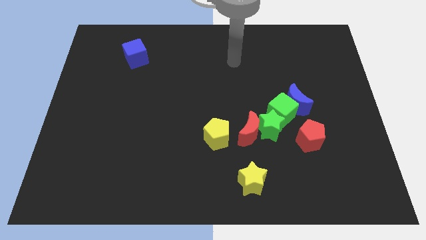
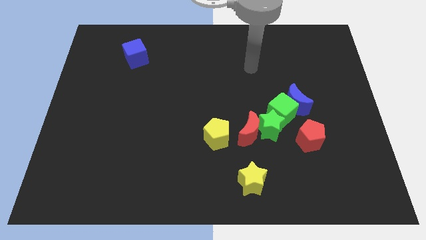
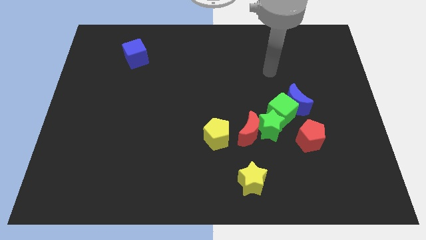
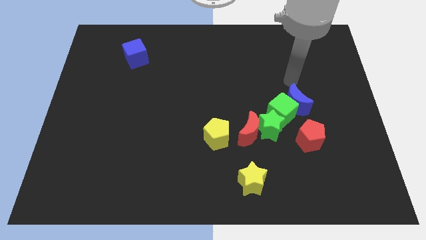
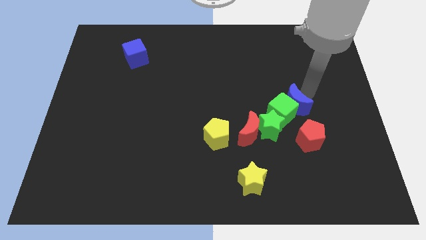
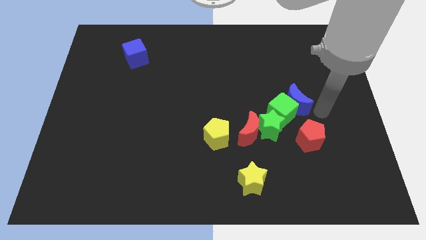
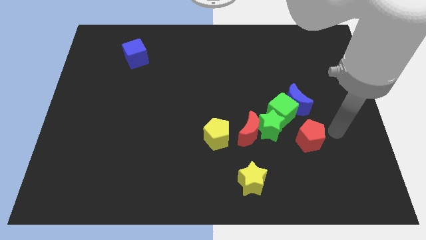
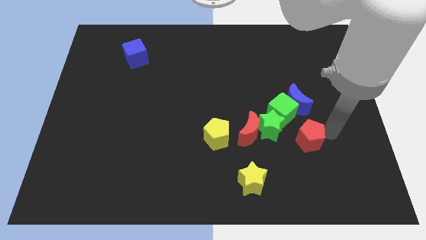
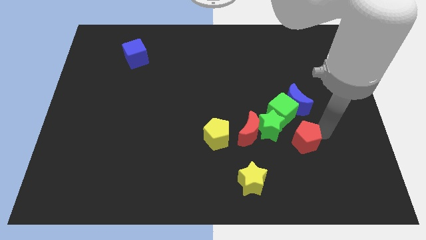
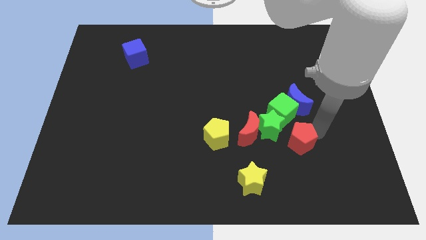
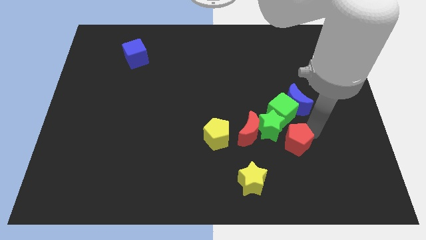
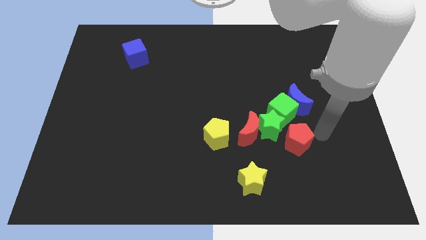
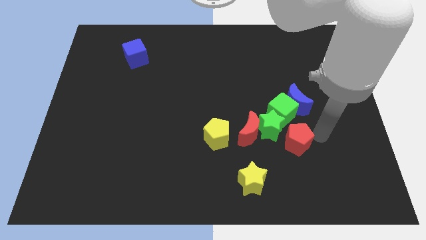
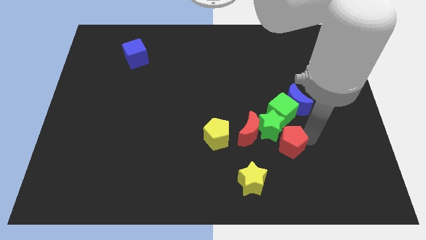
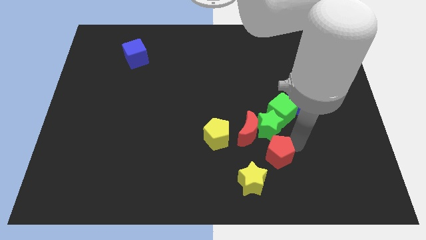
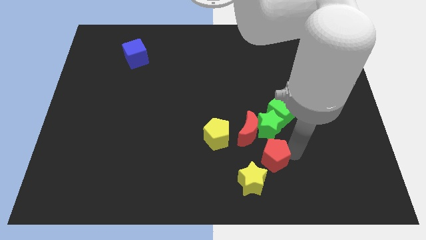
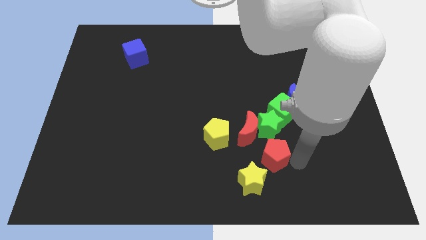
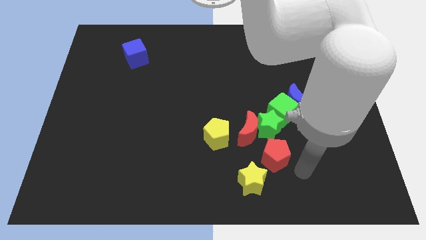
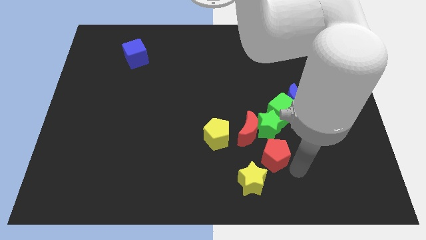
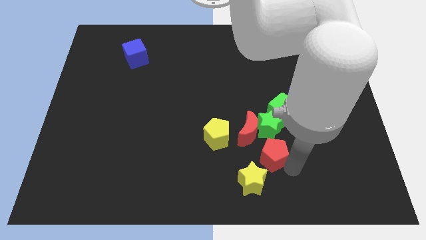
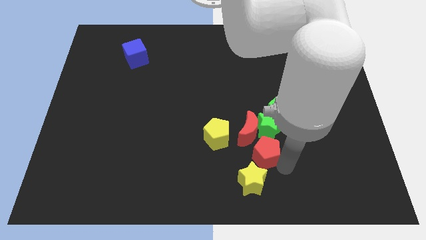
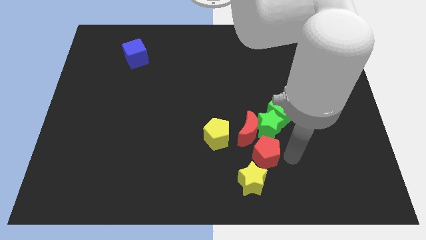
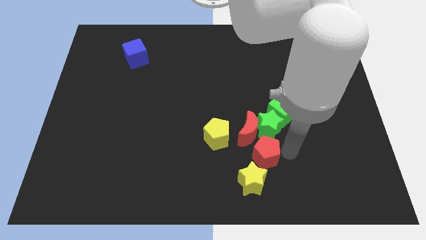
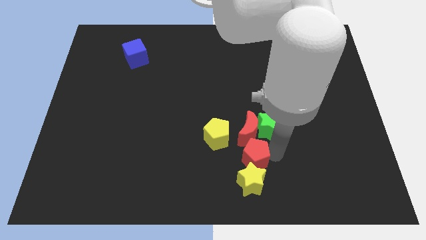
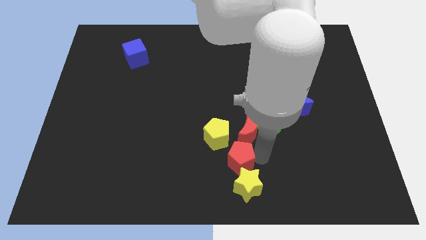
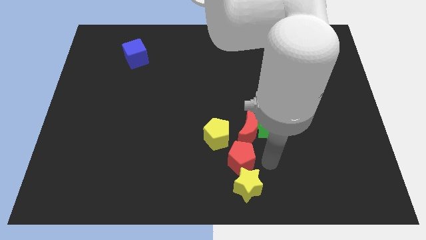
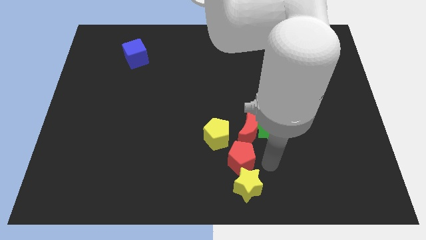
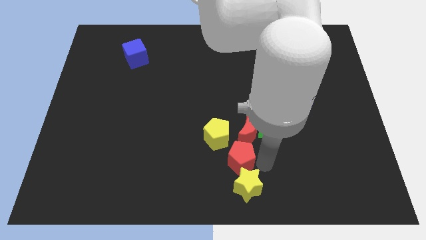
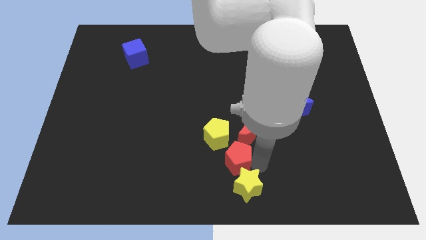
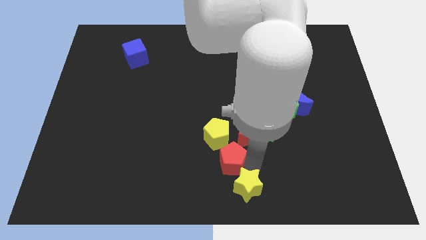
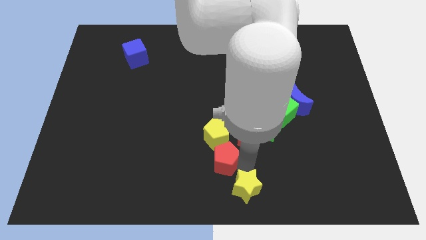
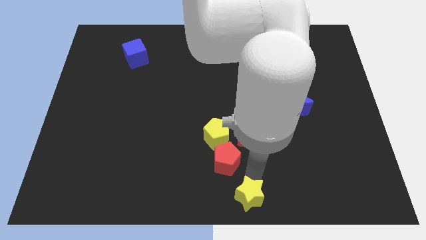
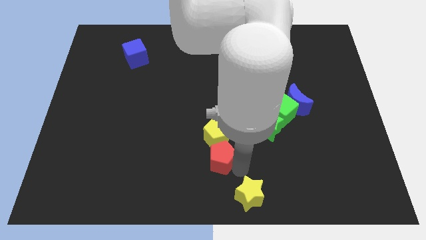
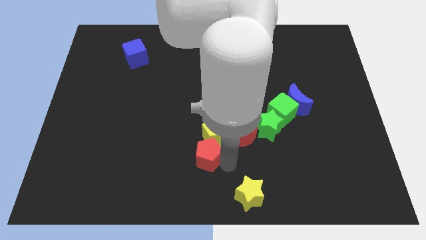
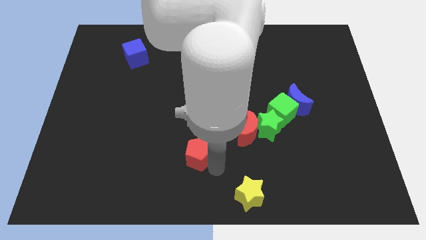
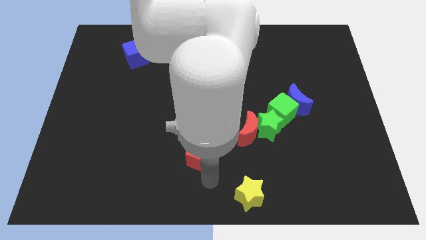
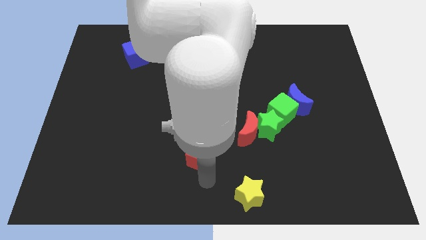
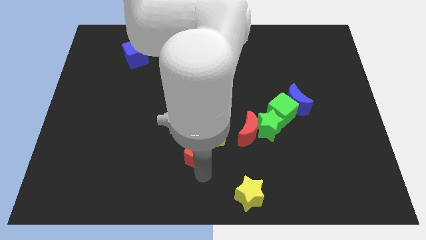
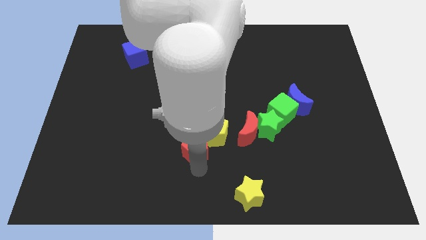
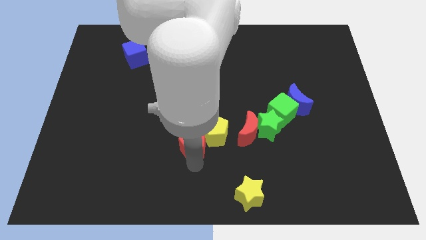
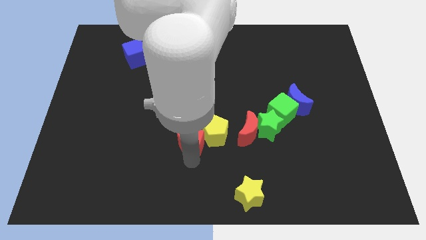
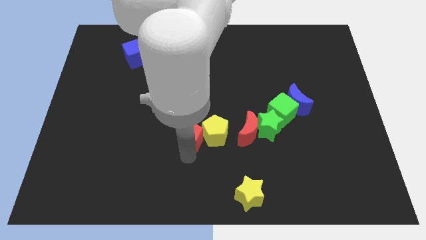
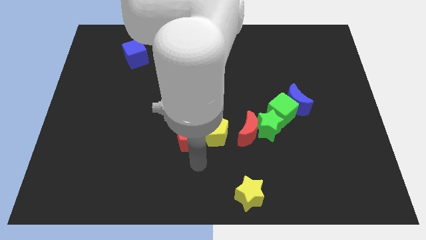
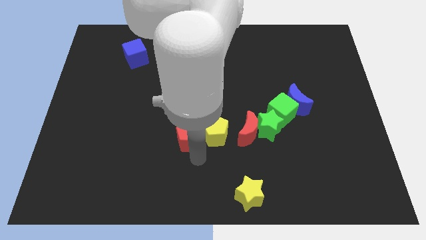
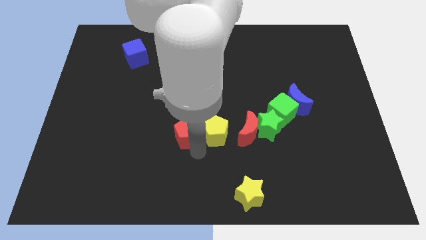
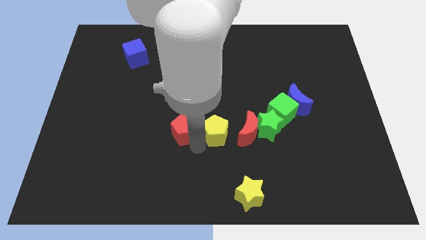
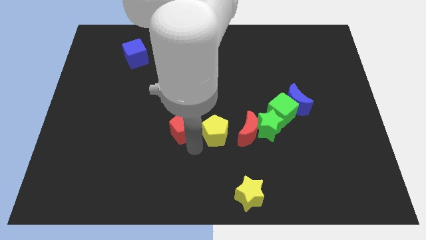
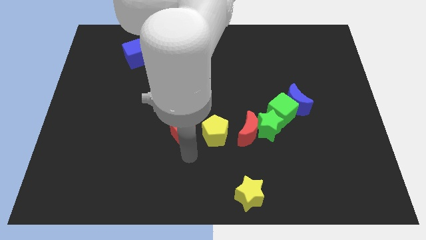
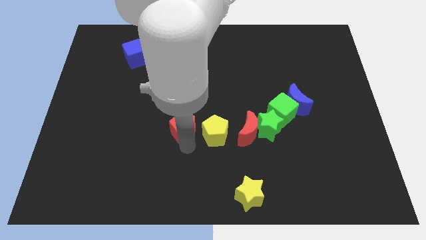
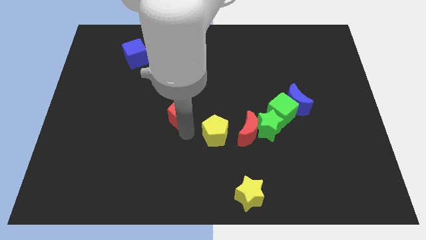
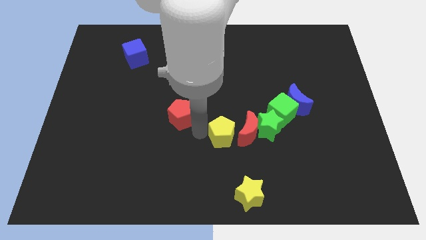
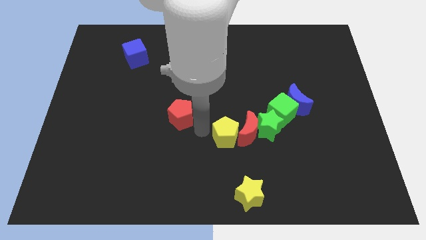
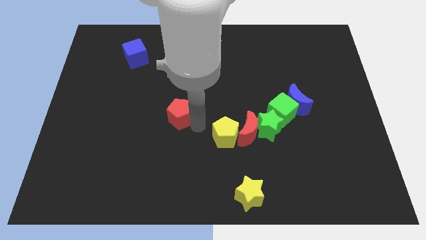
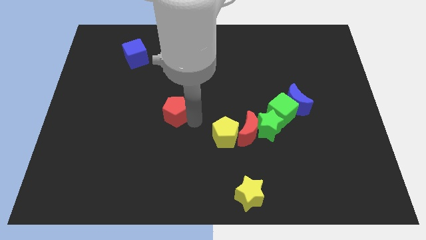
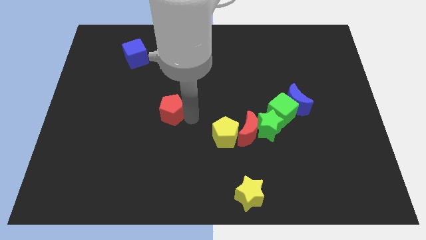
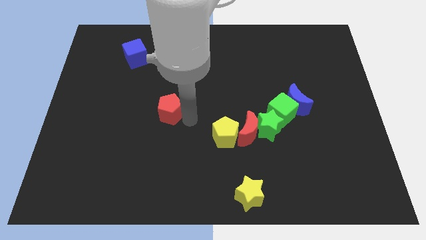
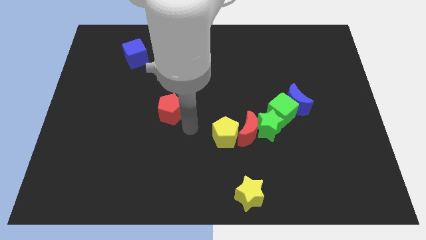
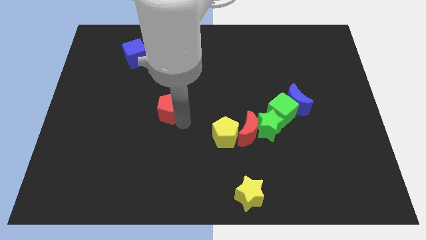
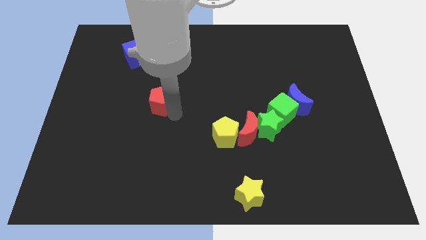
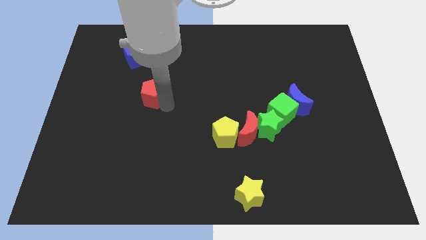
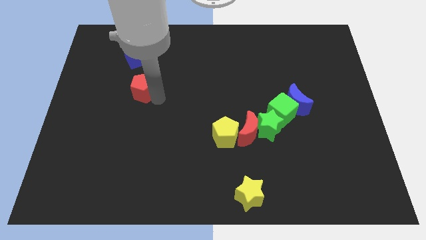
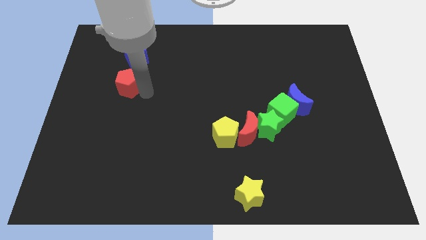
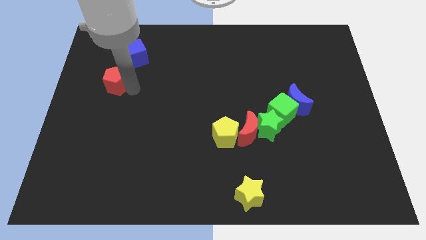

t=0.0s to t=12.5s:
push the red pentagon to the bottom left of the blue cube

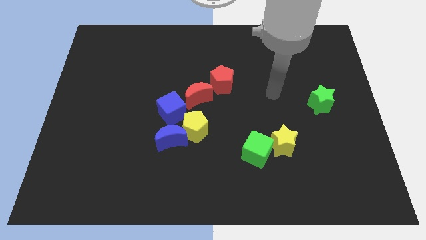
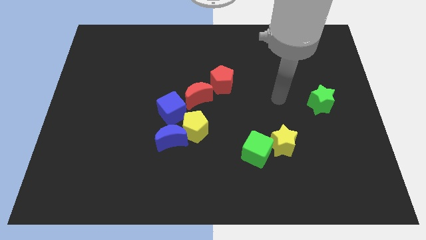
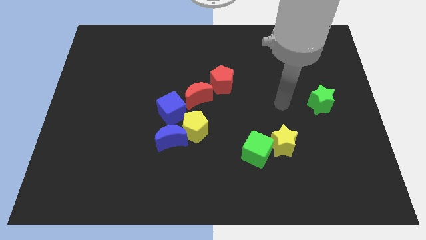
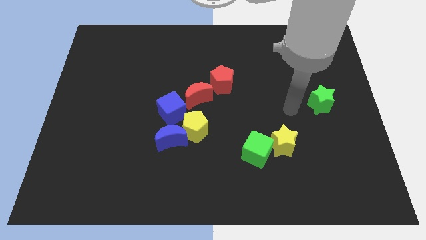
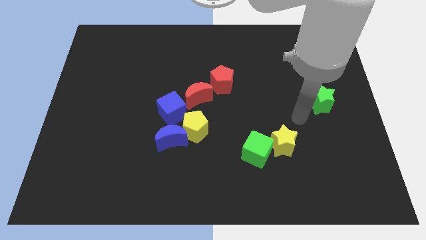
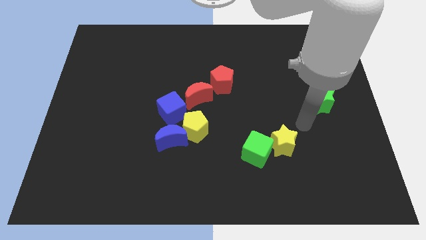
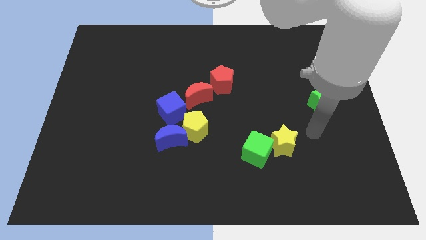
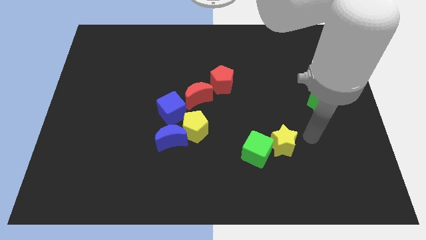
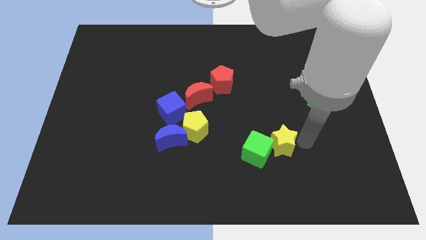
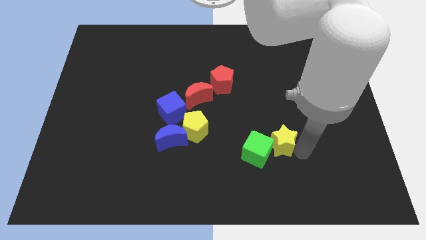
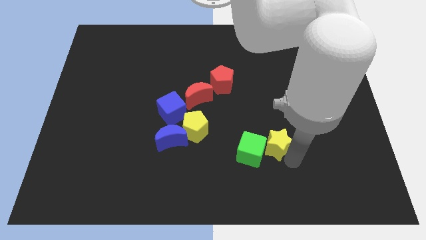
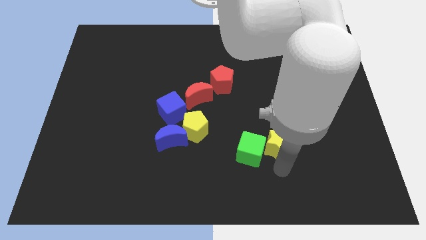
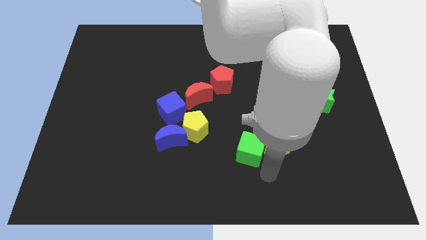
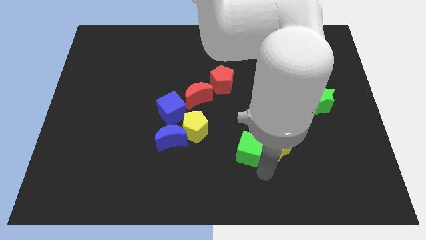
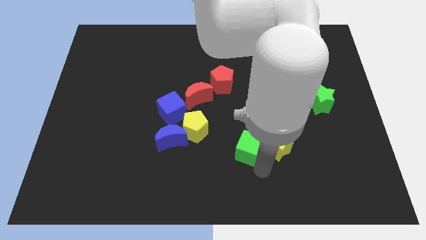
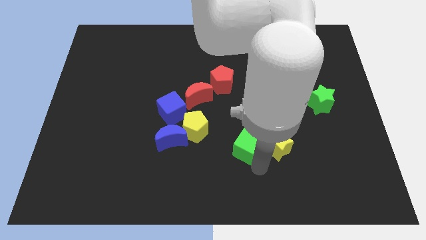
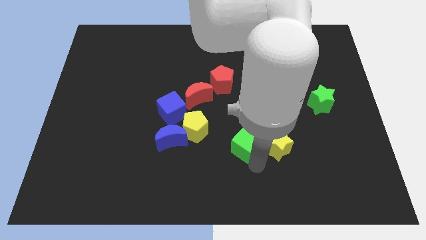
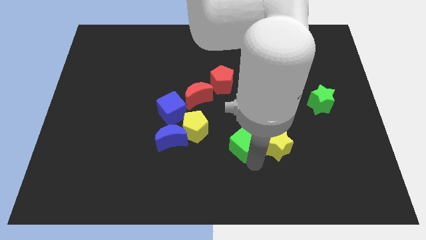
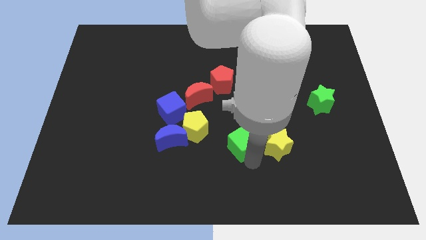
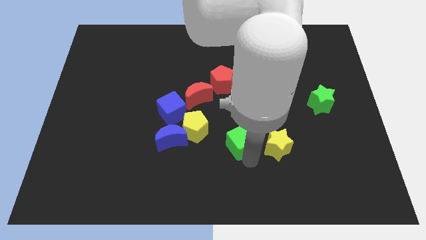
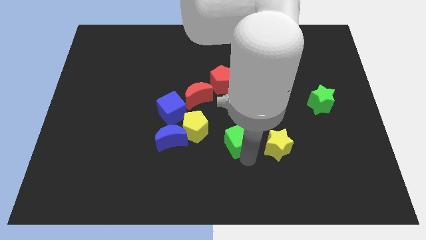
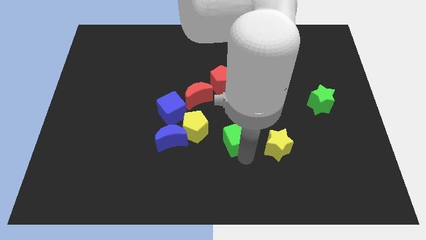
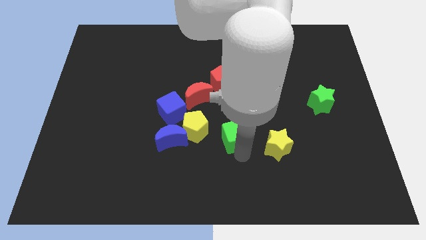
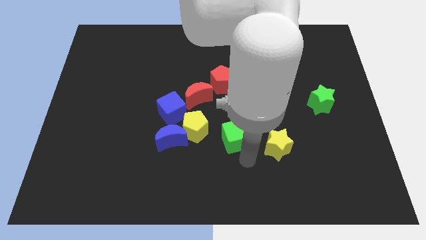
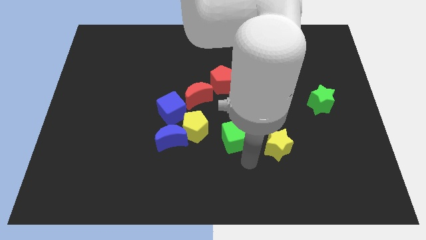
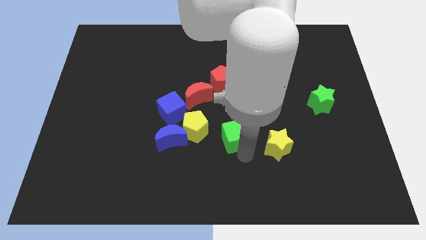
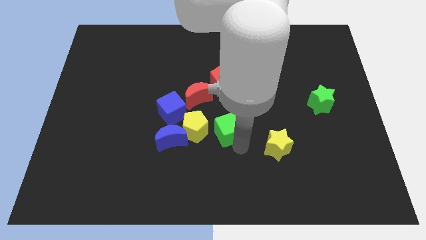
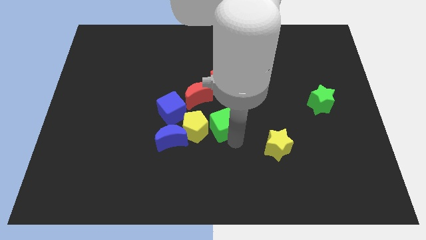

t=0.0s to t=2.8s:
push the green cube diagonally up and to the right of the yellow pentagon
